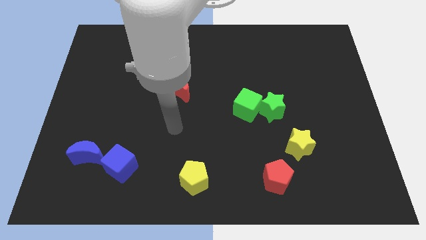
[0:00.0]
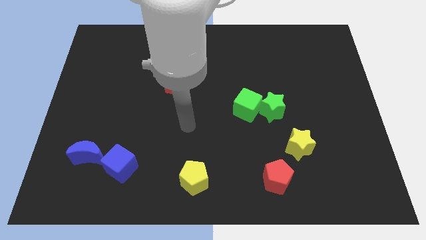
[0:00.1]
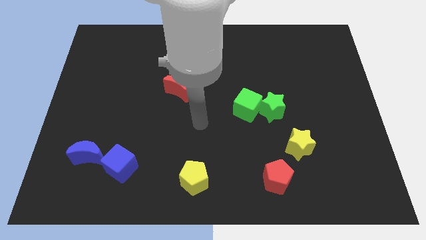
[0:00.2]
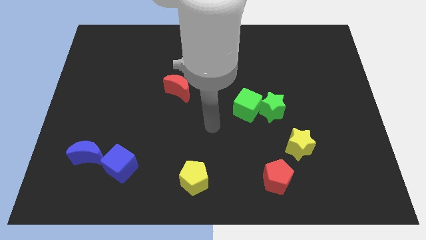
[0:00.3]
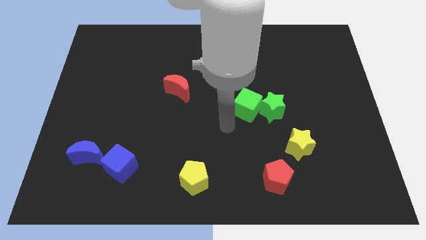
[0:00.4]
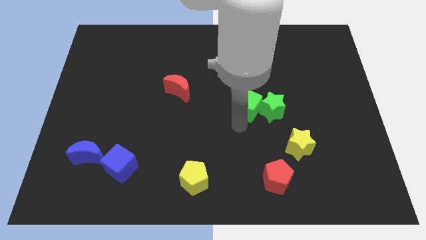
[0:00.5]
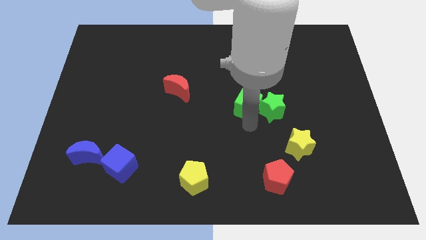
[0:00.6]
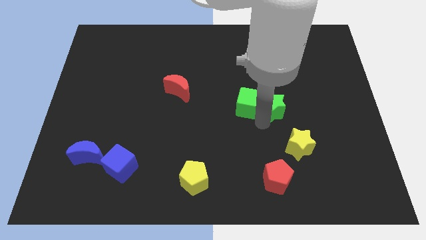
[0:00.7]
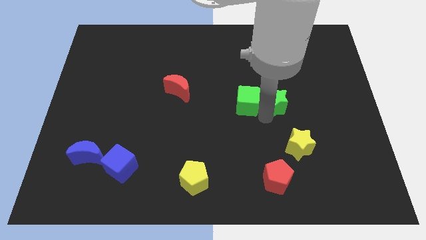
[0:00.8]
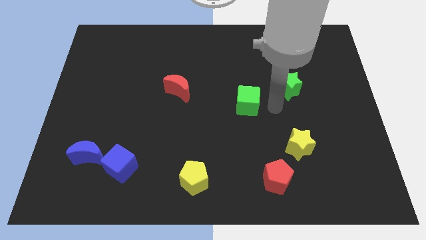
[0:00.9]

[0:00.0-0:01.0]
move the green cube away from the green star

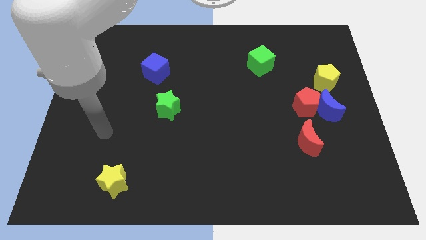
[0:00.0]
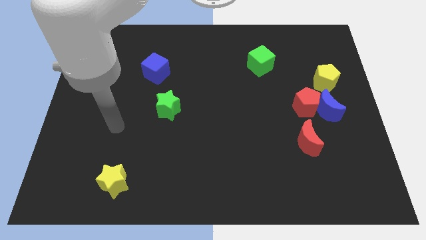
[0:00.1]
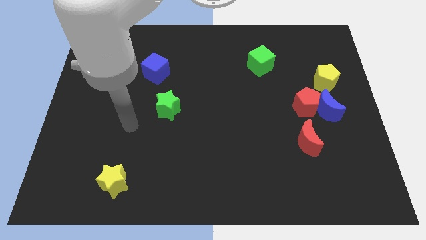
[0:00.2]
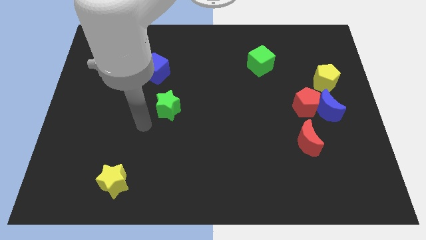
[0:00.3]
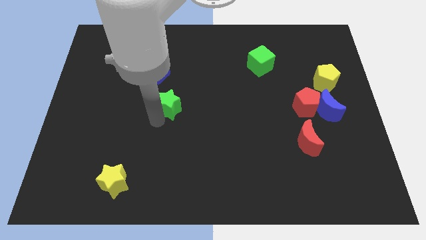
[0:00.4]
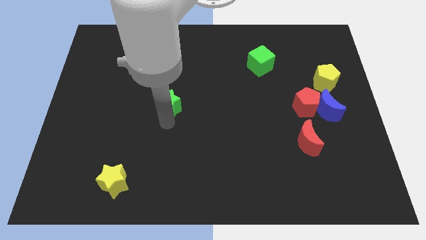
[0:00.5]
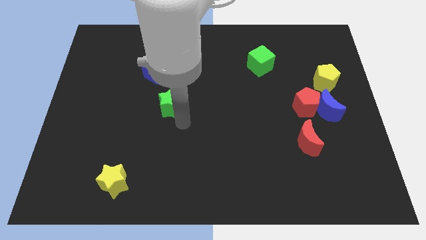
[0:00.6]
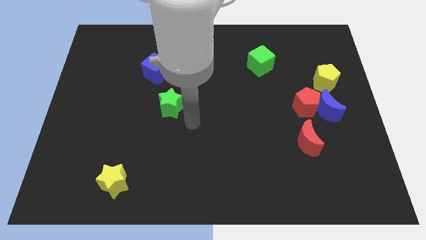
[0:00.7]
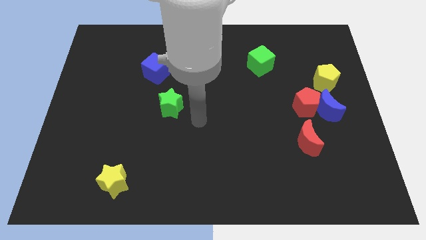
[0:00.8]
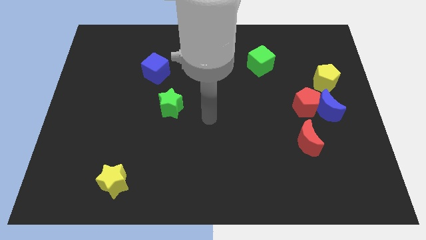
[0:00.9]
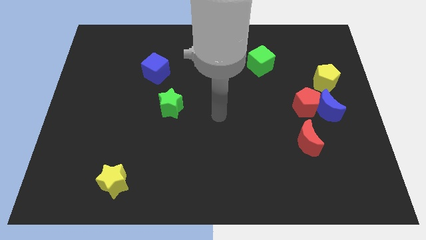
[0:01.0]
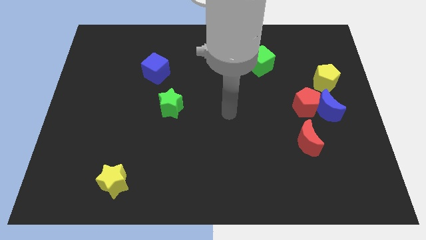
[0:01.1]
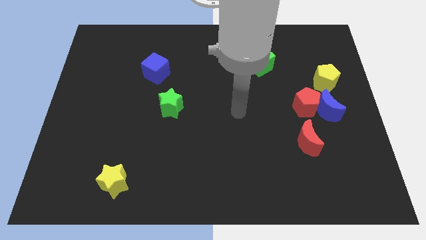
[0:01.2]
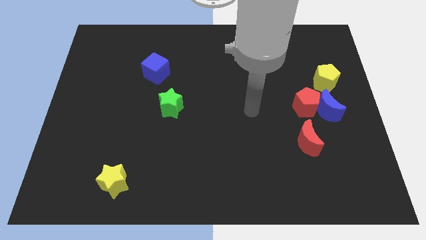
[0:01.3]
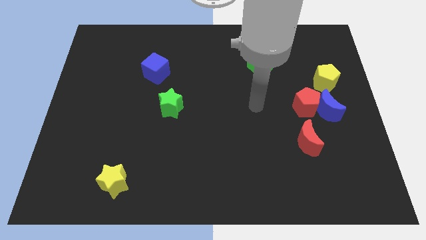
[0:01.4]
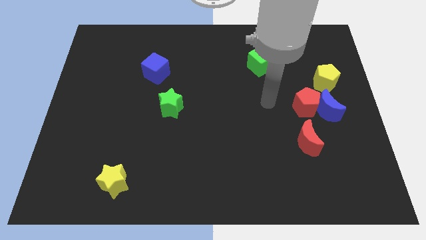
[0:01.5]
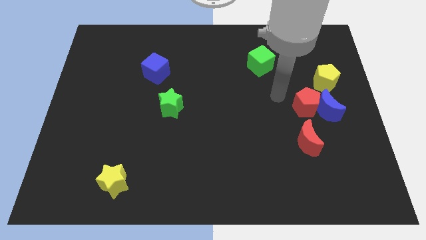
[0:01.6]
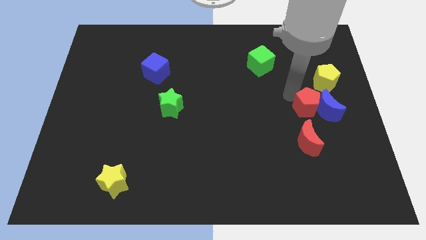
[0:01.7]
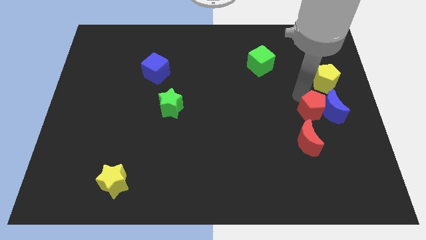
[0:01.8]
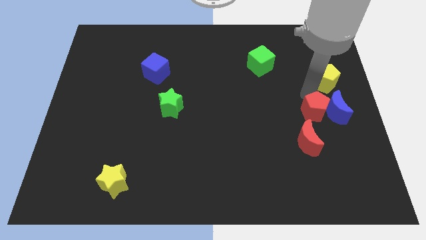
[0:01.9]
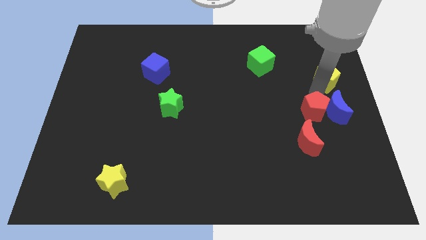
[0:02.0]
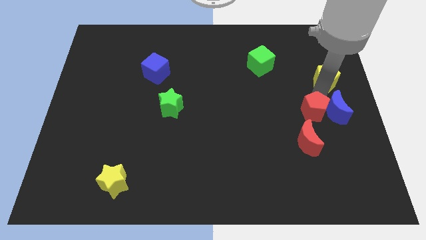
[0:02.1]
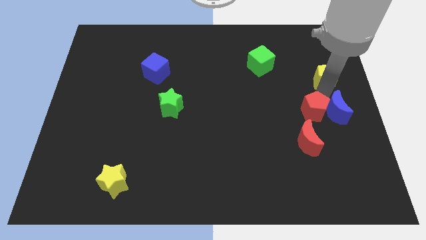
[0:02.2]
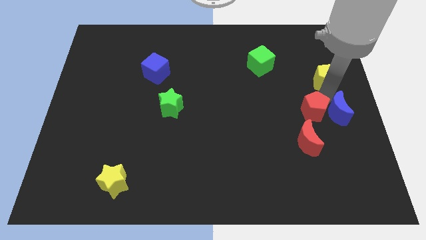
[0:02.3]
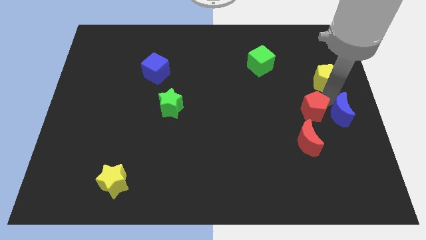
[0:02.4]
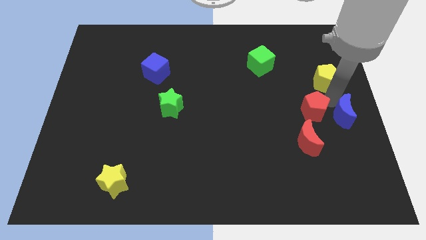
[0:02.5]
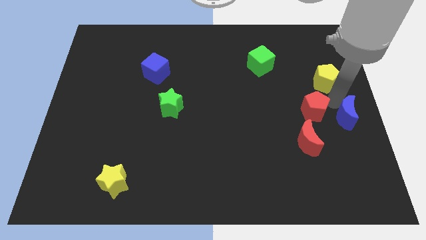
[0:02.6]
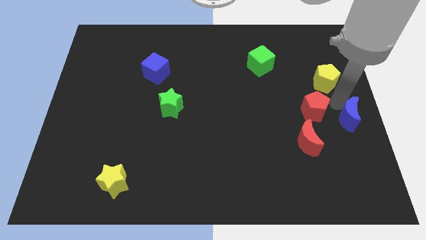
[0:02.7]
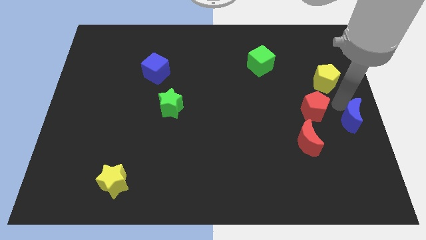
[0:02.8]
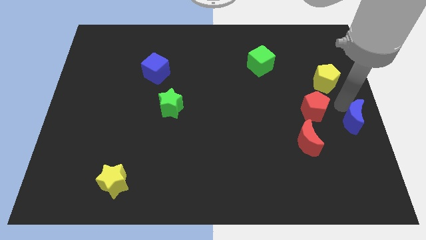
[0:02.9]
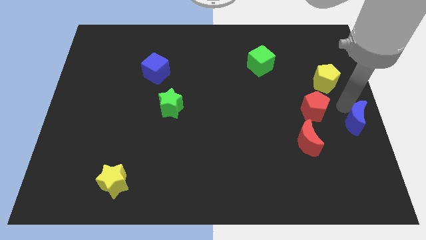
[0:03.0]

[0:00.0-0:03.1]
move the blue moon away from the red pentagon and yellow pentagon

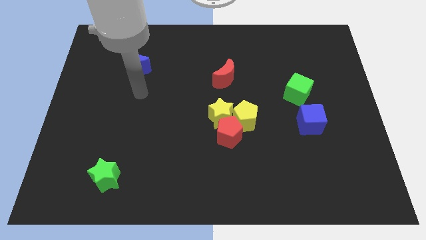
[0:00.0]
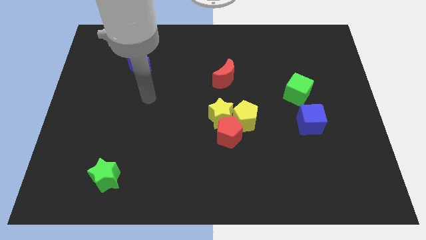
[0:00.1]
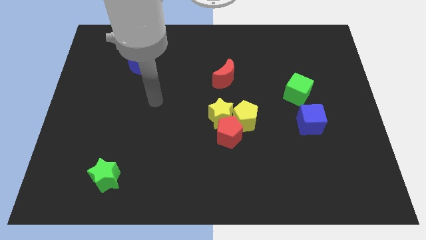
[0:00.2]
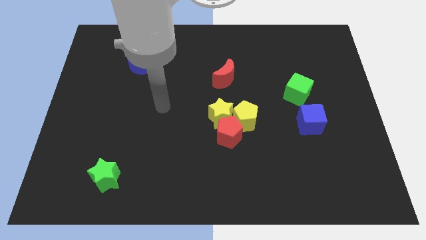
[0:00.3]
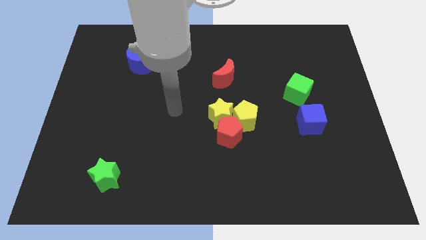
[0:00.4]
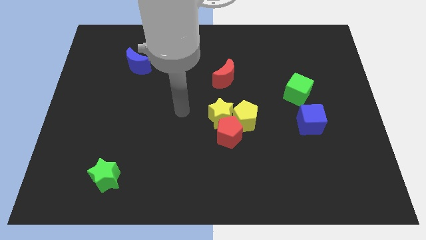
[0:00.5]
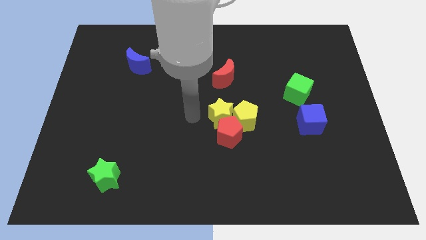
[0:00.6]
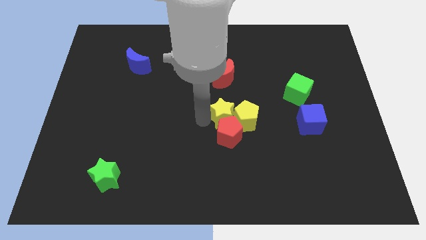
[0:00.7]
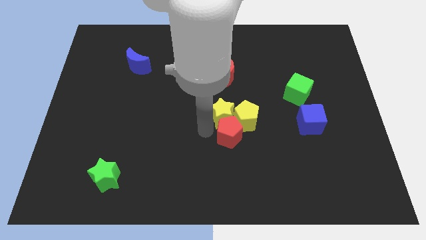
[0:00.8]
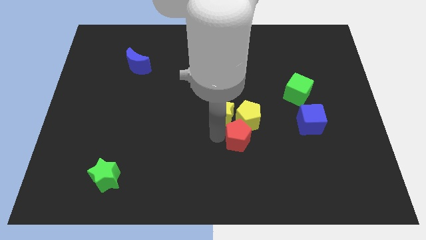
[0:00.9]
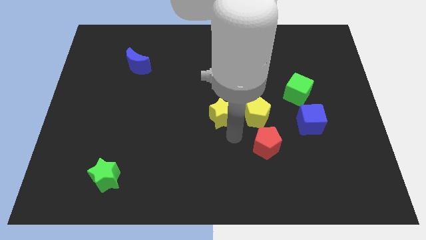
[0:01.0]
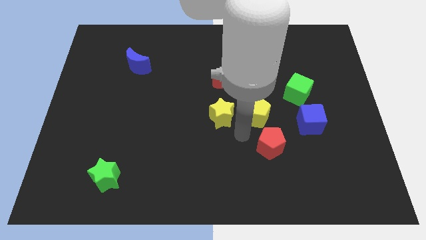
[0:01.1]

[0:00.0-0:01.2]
pull the yellow star apart from the red pentagon and yellow pentagon

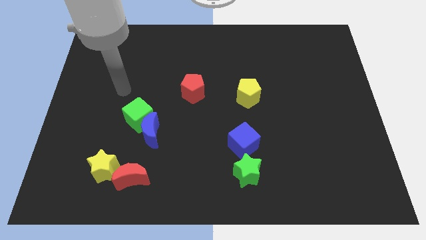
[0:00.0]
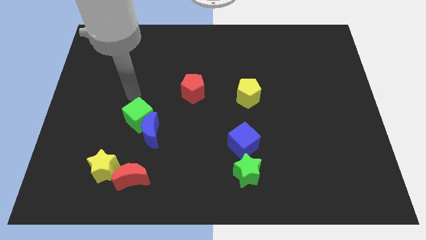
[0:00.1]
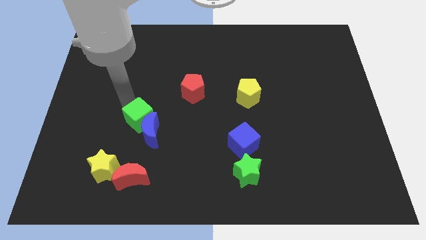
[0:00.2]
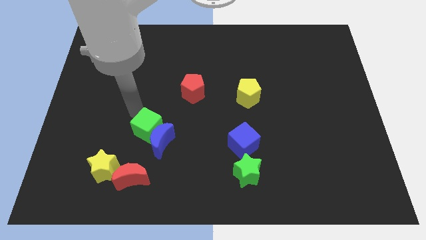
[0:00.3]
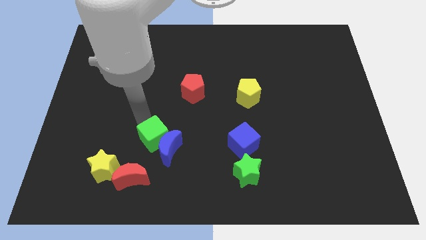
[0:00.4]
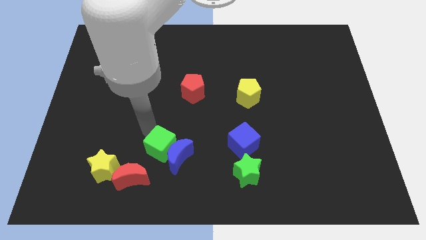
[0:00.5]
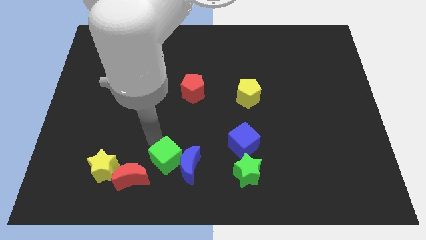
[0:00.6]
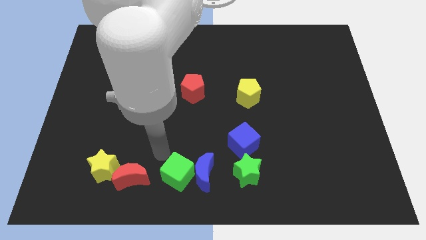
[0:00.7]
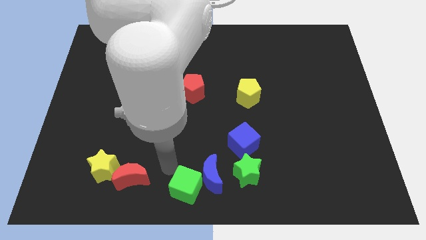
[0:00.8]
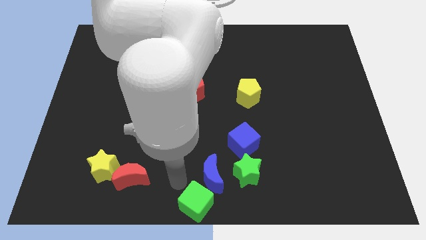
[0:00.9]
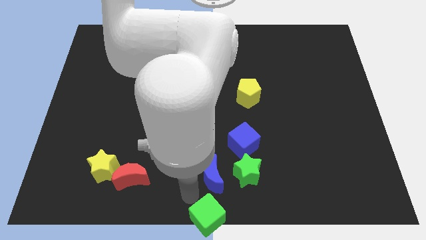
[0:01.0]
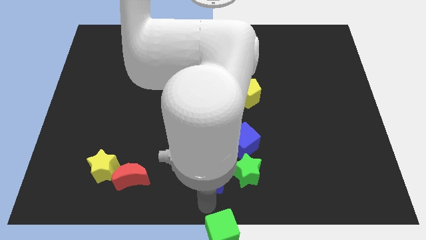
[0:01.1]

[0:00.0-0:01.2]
move the blue moon away from the green cube

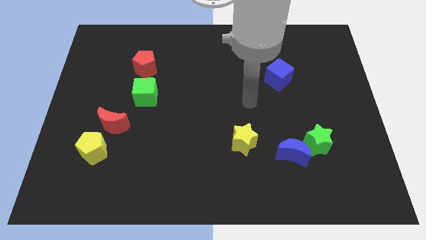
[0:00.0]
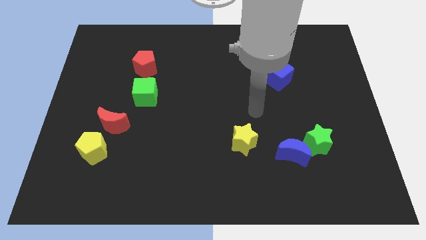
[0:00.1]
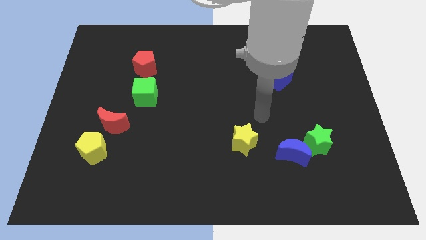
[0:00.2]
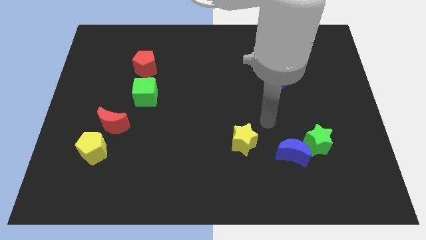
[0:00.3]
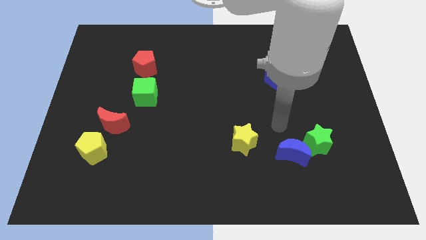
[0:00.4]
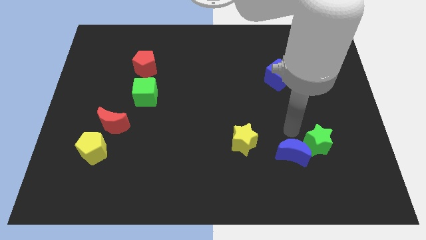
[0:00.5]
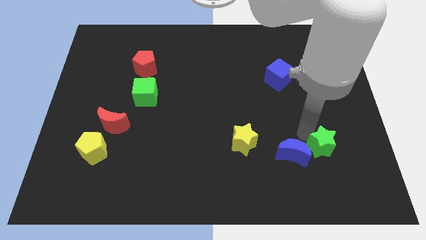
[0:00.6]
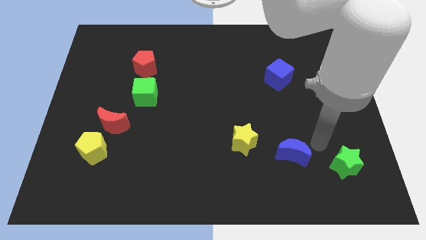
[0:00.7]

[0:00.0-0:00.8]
move the blue moon away from the green star

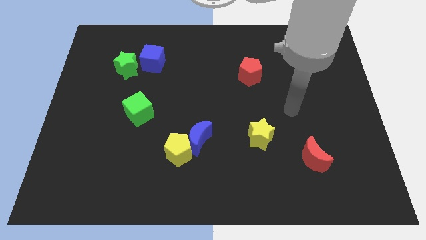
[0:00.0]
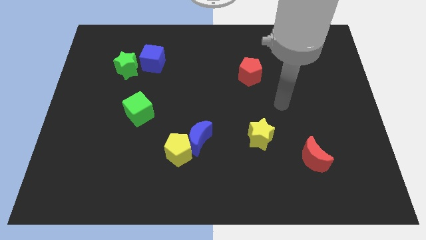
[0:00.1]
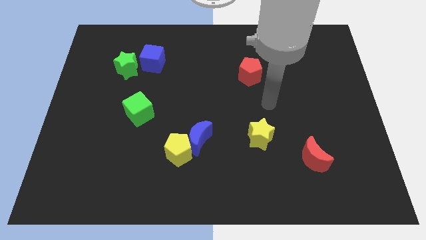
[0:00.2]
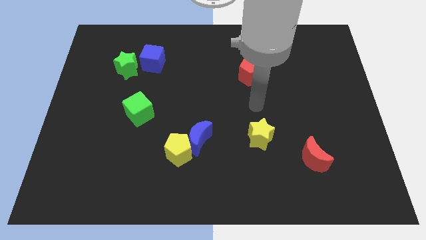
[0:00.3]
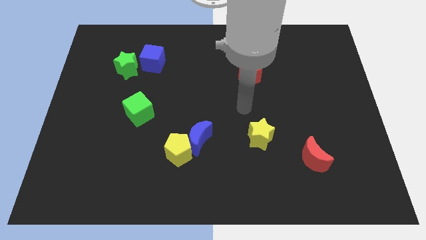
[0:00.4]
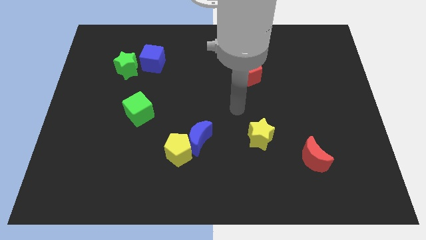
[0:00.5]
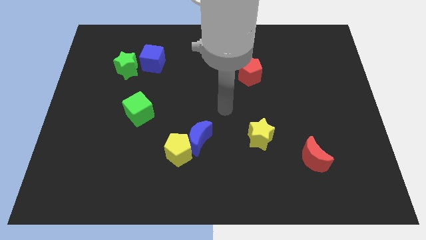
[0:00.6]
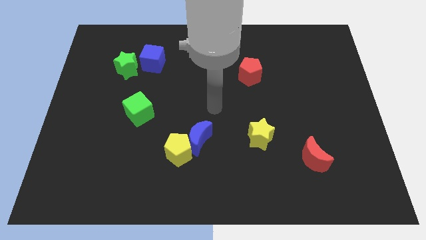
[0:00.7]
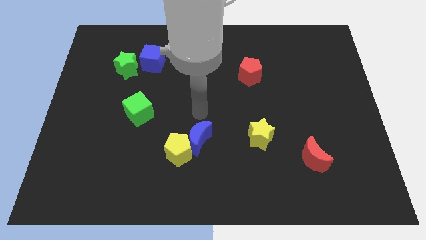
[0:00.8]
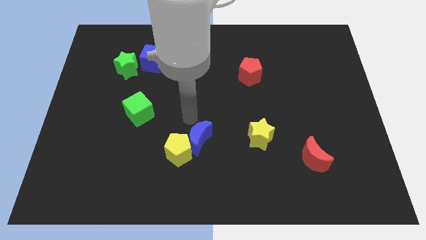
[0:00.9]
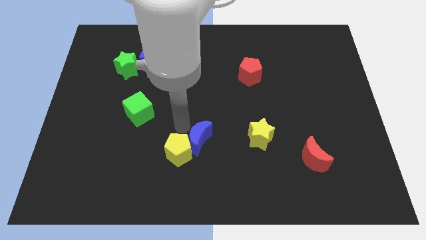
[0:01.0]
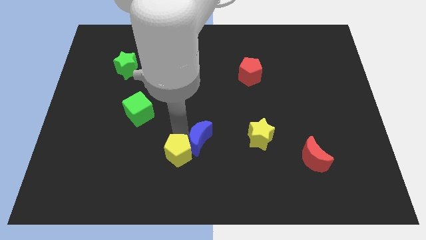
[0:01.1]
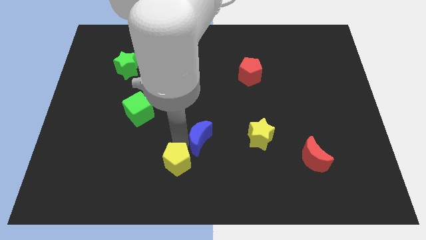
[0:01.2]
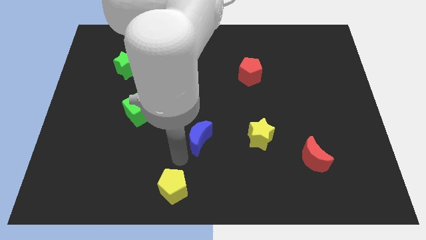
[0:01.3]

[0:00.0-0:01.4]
pull the blue moon apart from the yellow pentagon

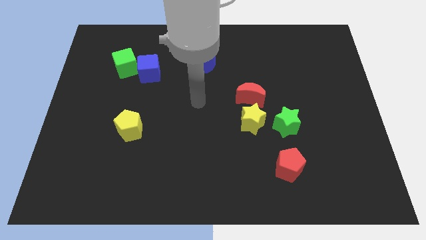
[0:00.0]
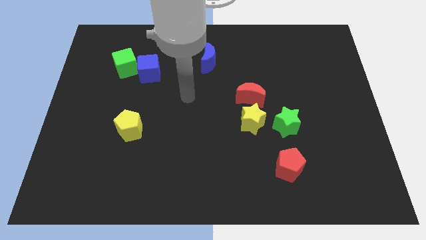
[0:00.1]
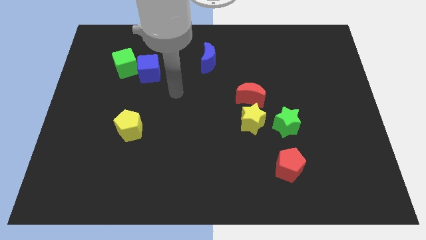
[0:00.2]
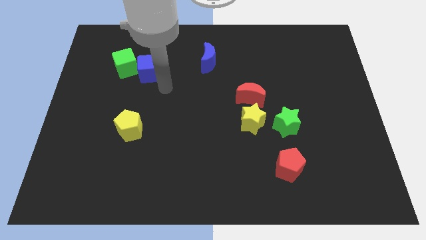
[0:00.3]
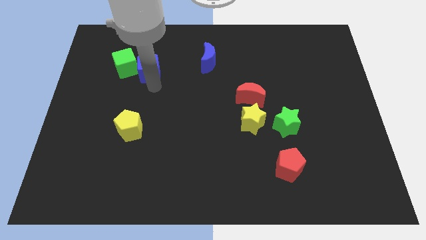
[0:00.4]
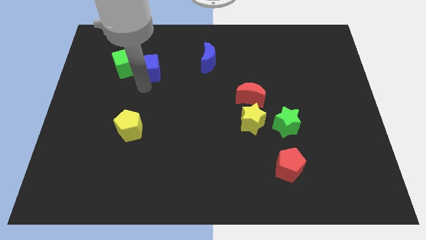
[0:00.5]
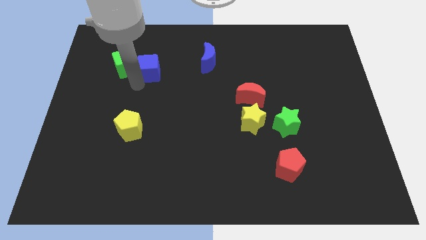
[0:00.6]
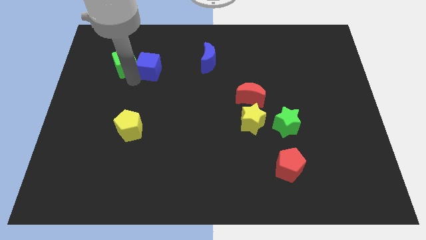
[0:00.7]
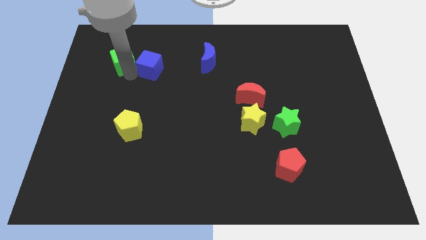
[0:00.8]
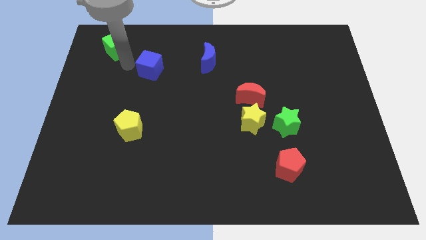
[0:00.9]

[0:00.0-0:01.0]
pull the blue cube apart from the green cube
